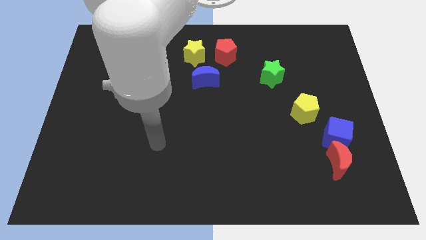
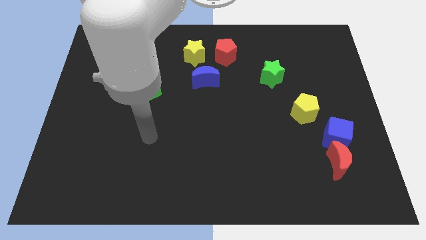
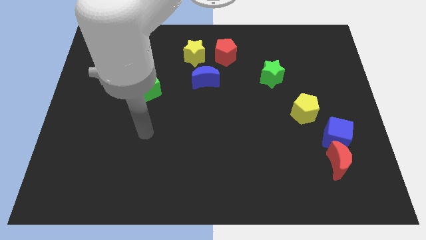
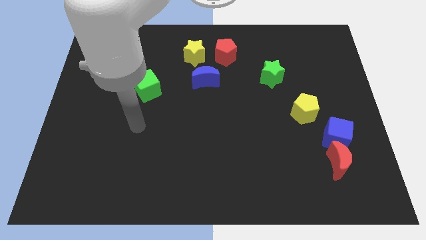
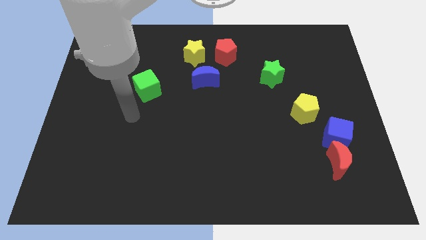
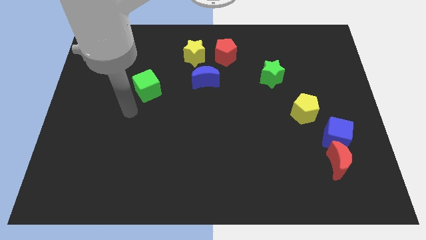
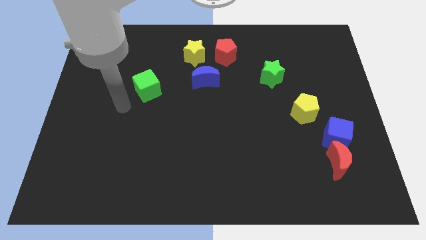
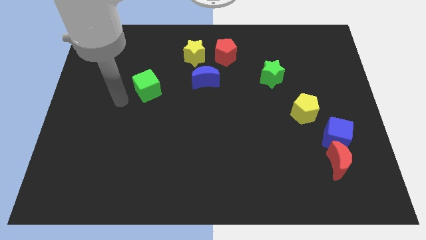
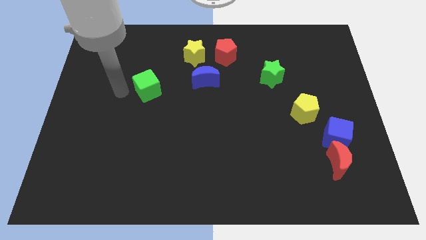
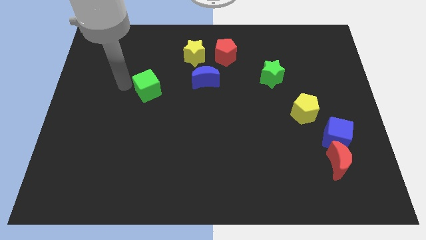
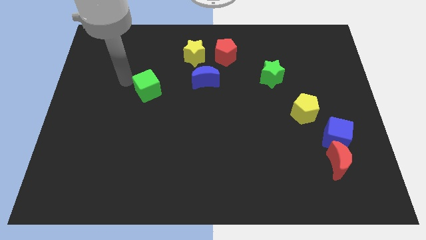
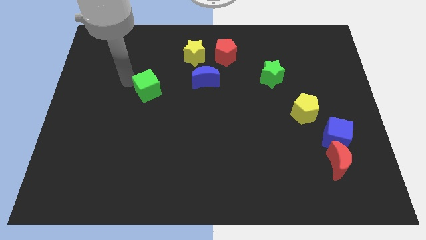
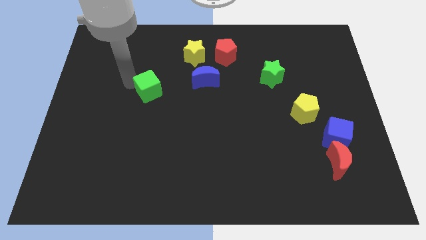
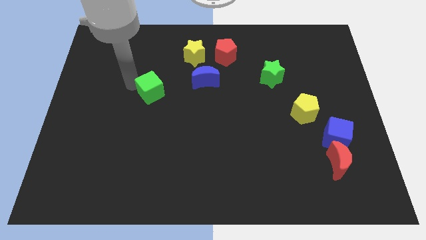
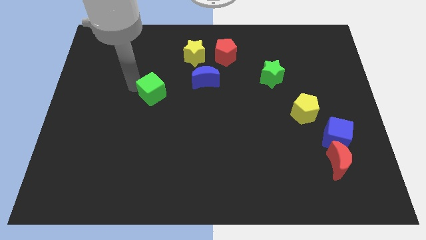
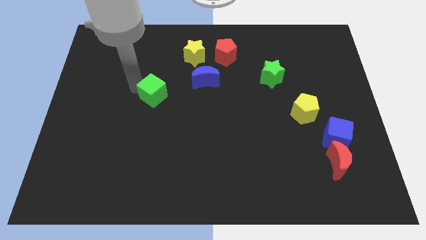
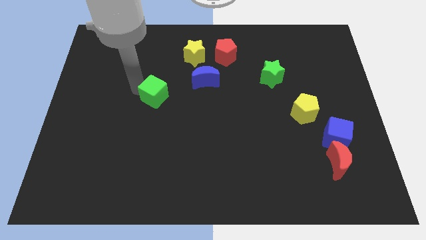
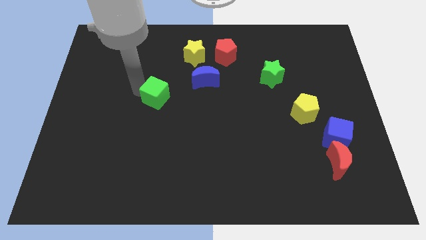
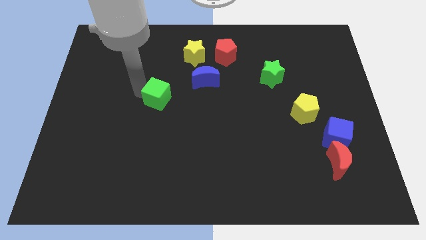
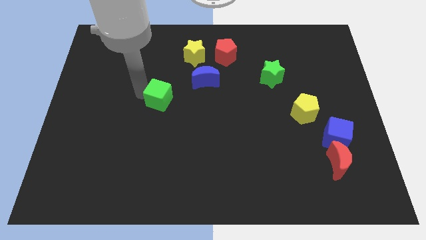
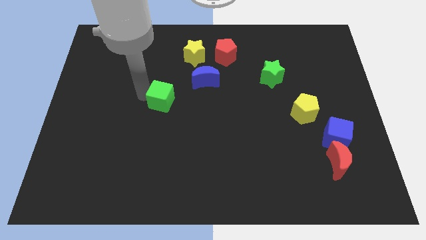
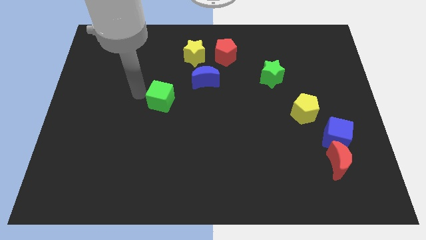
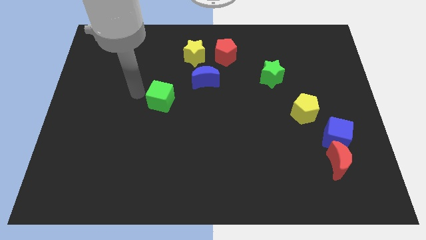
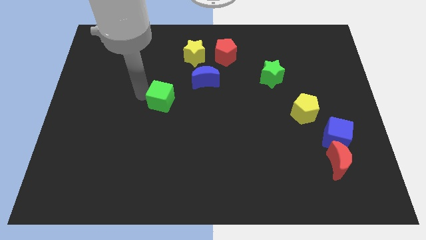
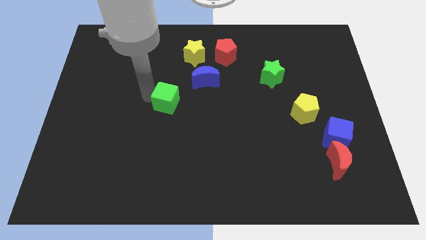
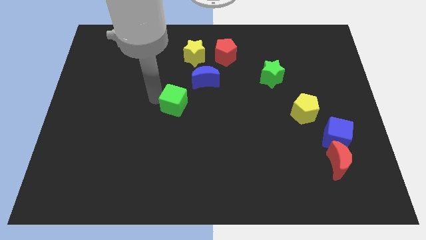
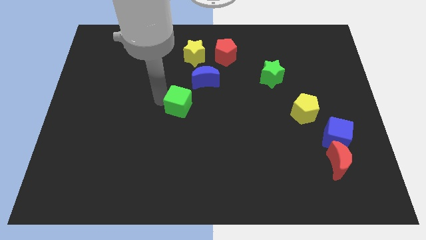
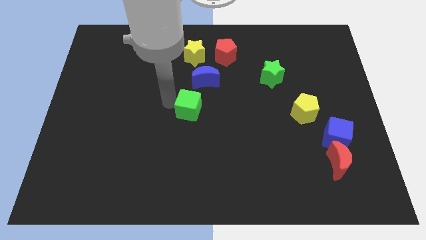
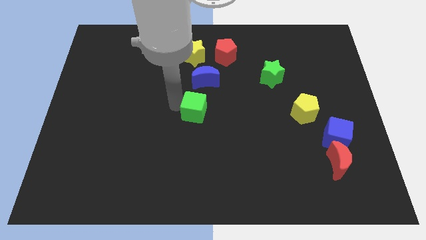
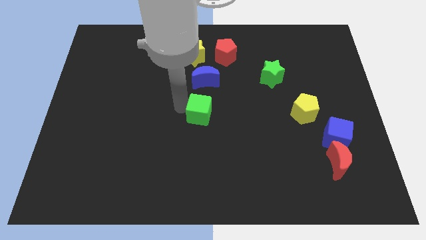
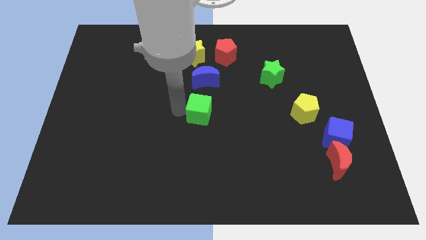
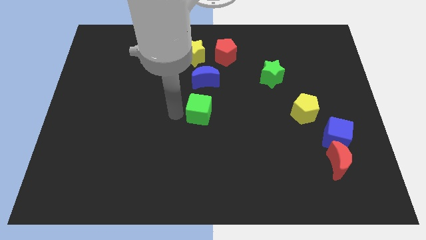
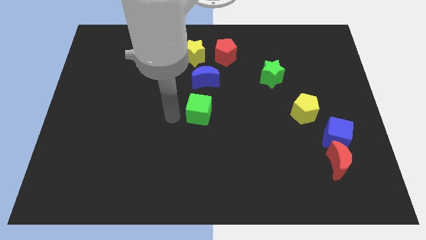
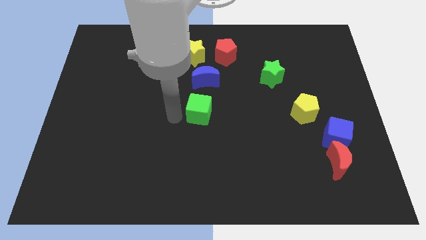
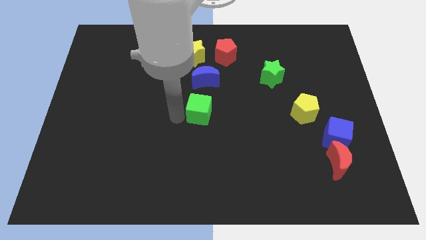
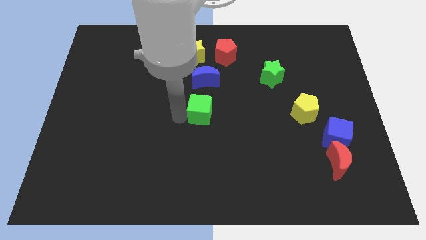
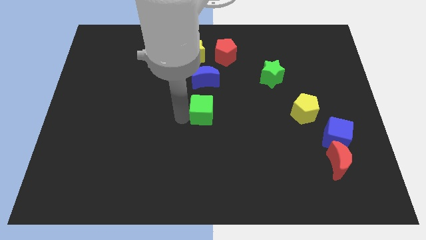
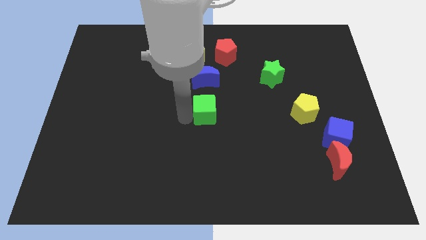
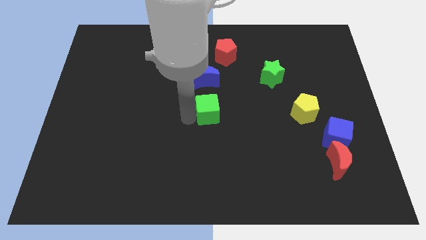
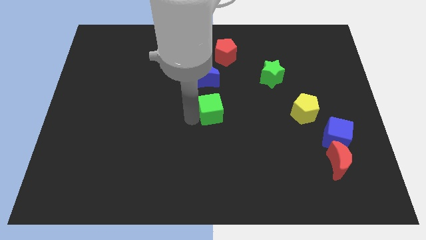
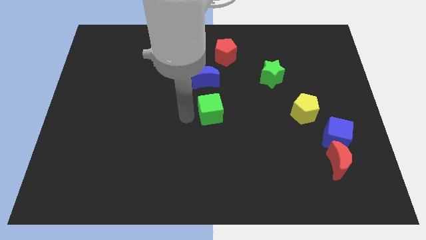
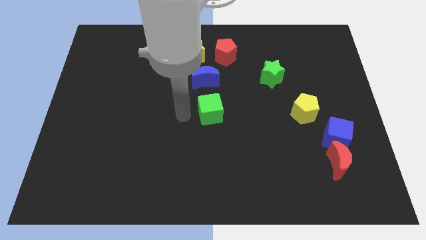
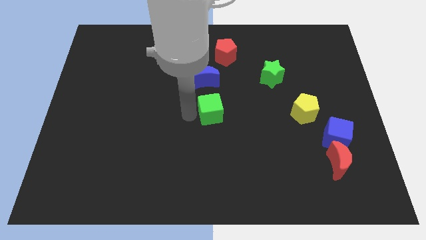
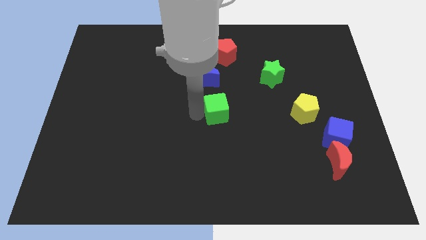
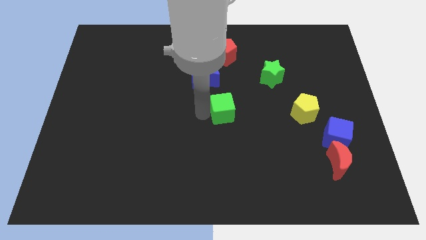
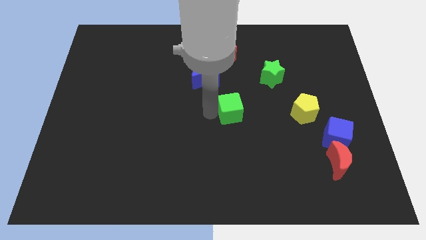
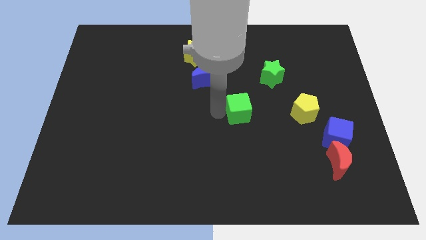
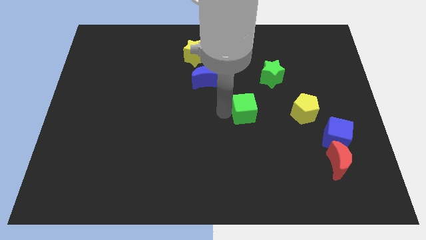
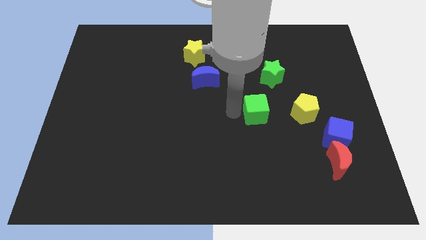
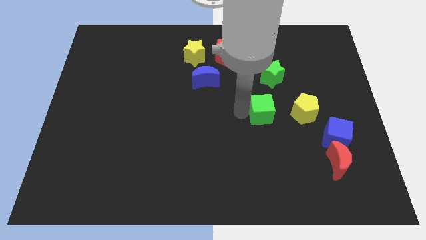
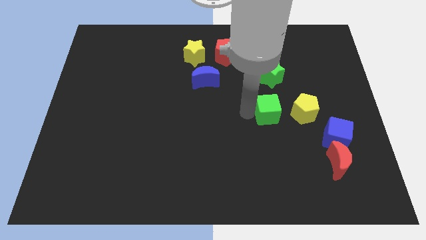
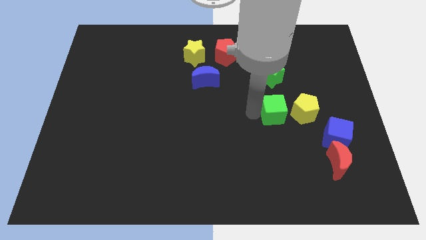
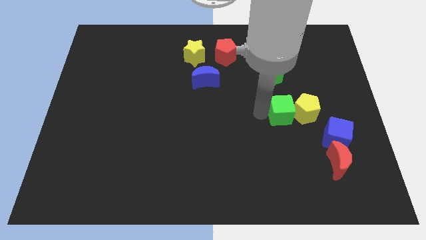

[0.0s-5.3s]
push the green cube close to the yellow pentagon

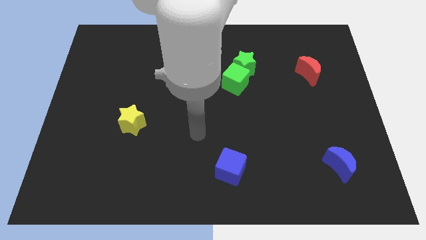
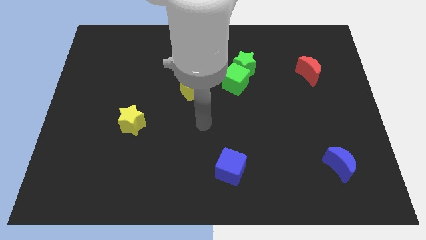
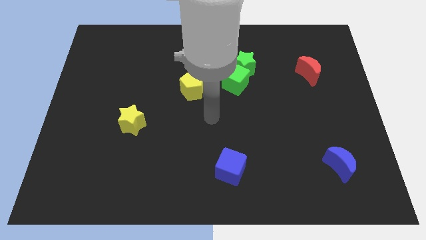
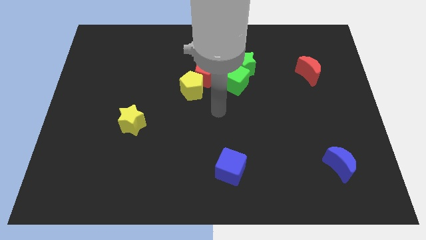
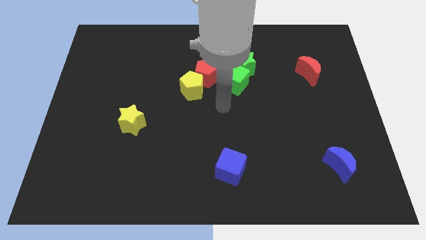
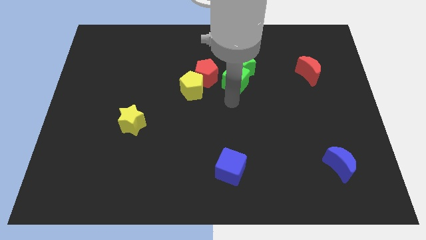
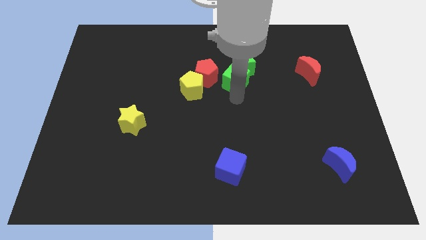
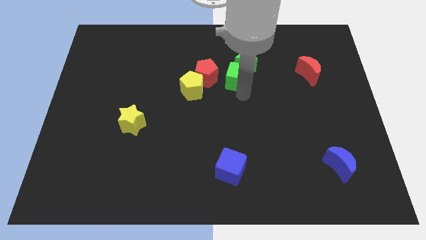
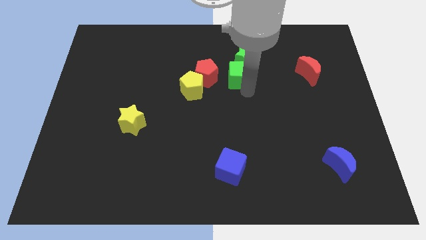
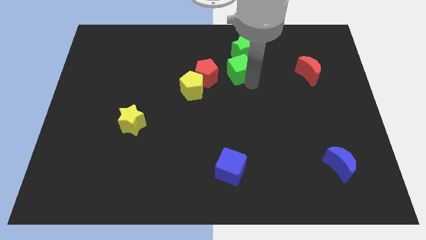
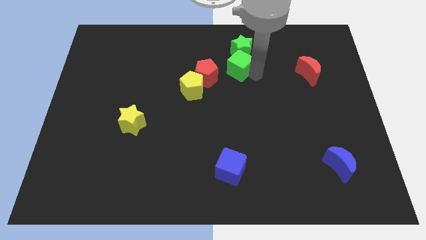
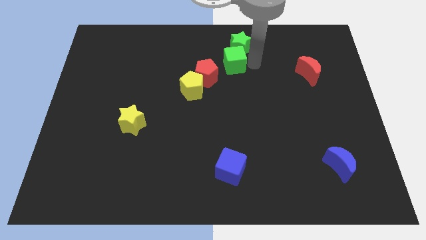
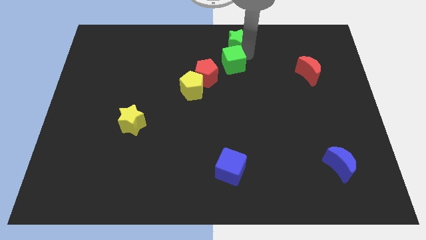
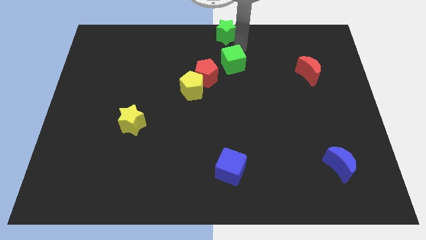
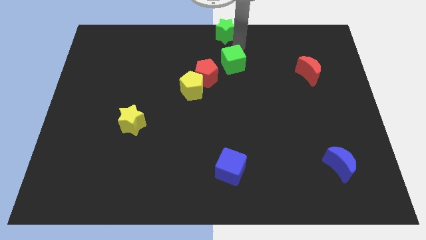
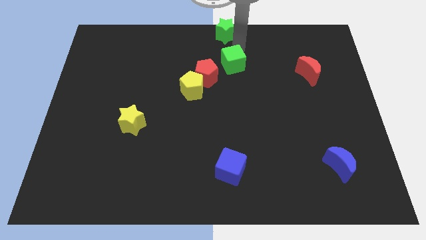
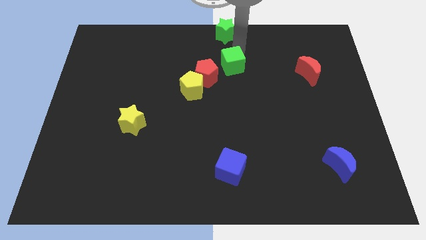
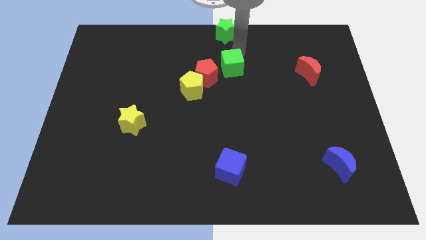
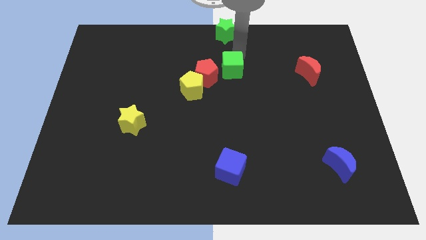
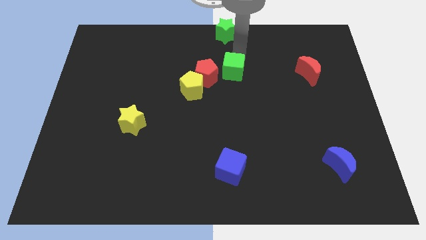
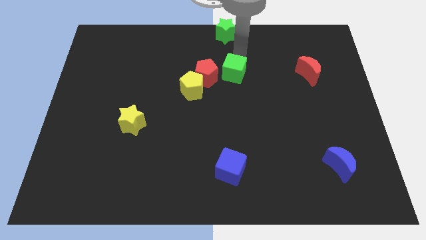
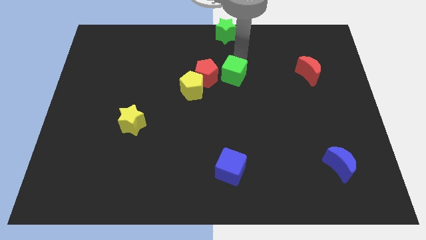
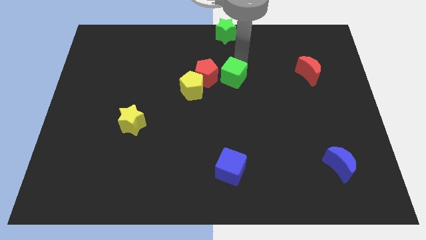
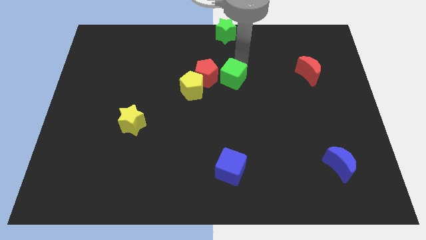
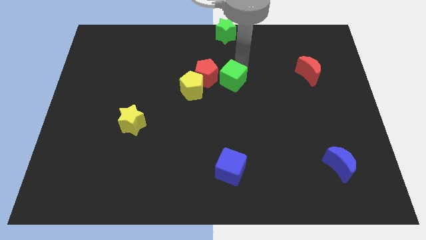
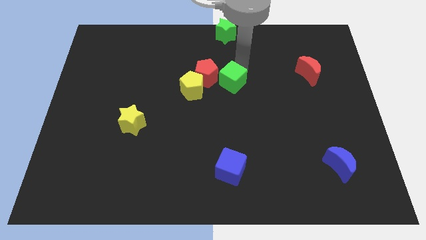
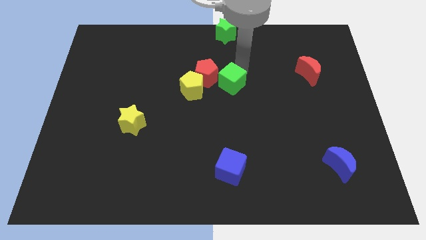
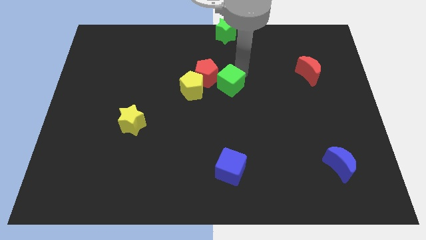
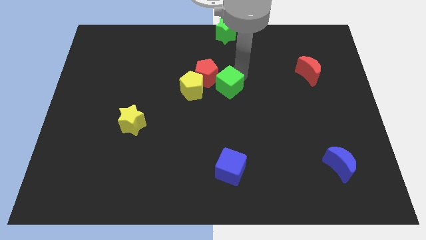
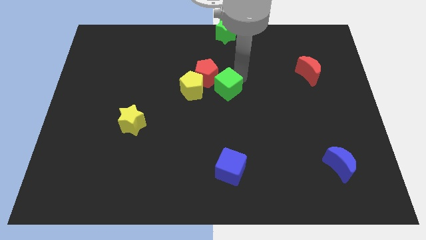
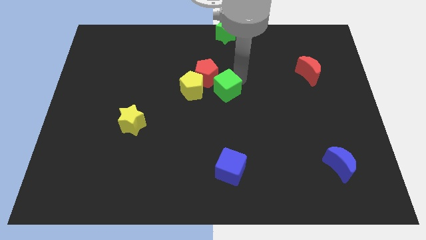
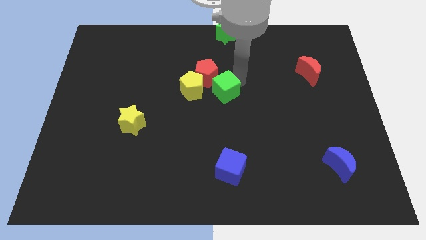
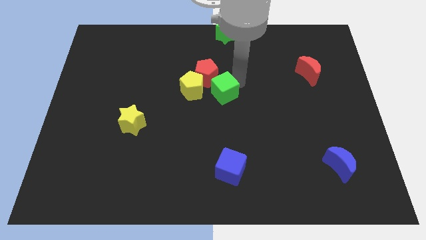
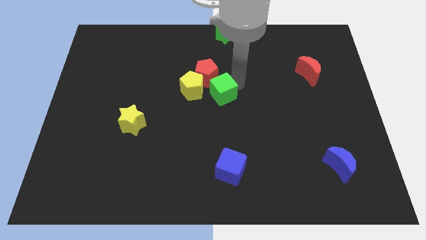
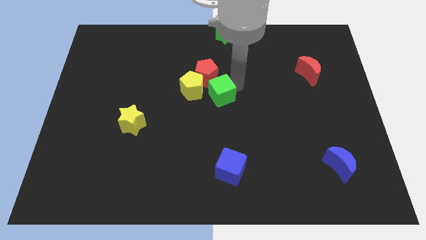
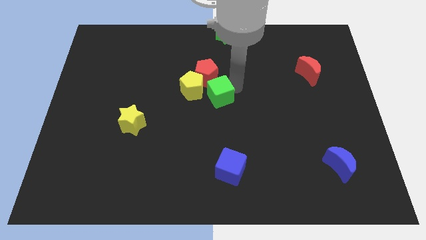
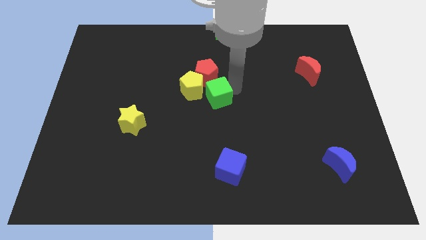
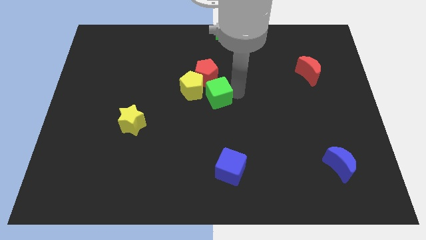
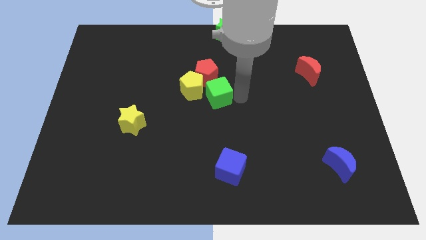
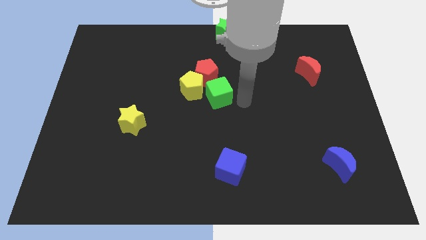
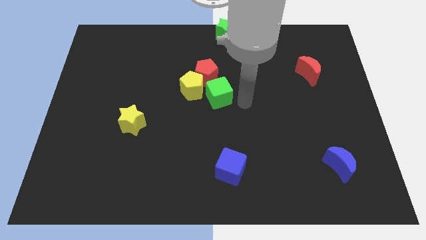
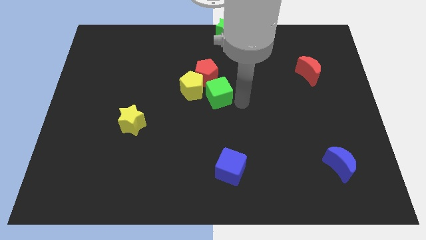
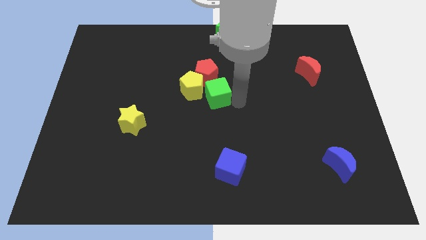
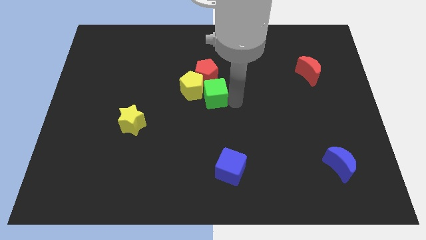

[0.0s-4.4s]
push the green cube to the yellow pentagon
